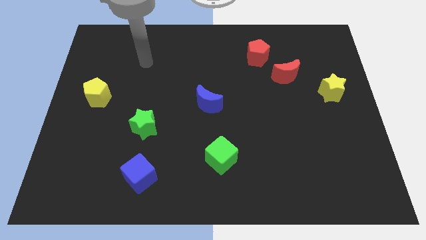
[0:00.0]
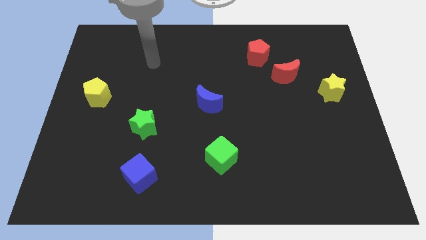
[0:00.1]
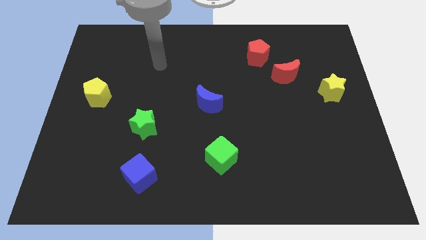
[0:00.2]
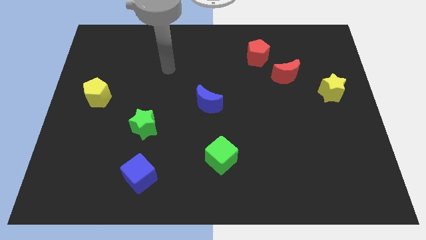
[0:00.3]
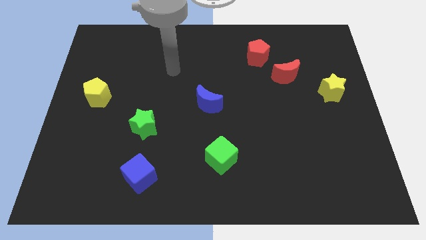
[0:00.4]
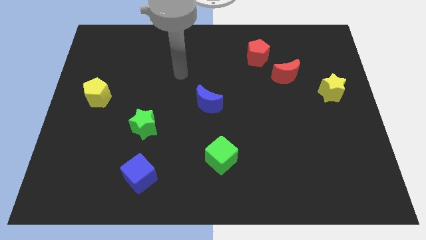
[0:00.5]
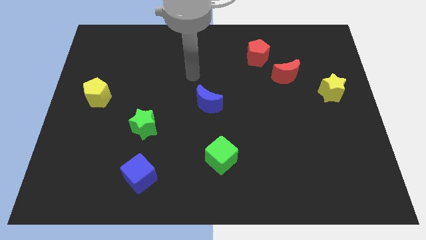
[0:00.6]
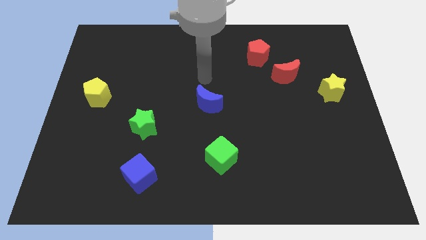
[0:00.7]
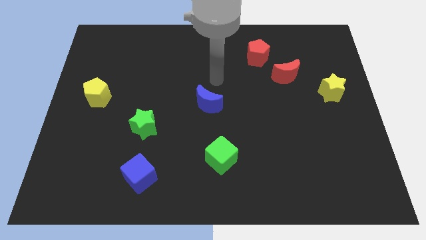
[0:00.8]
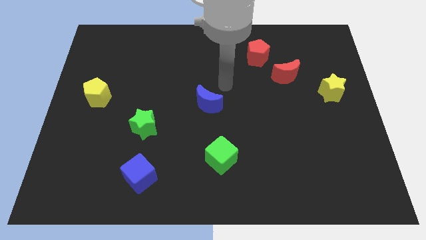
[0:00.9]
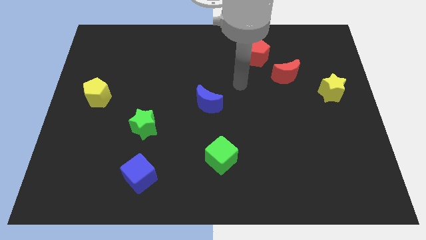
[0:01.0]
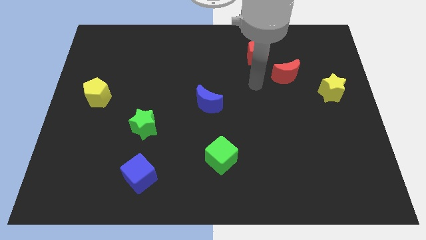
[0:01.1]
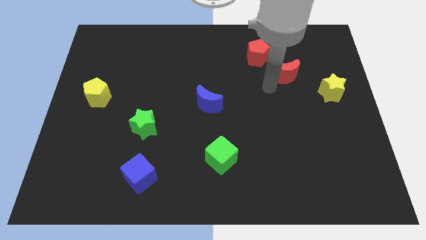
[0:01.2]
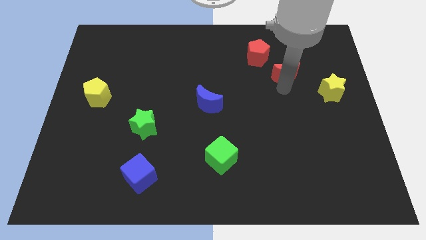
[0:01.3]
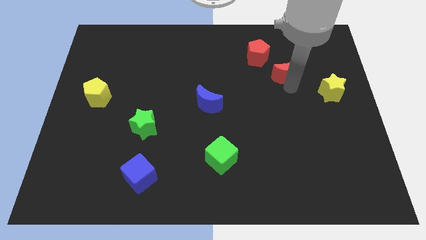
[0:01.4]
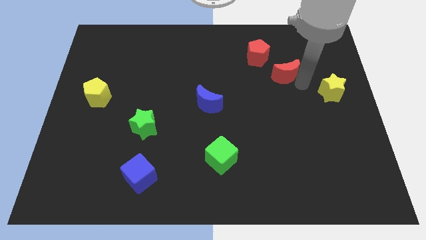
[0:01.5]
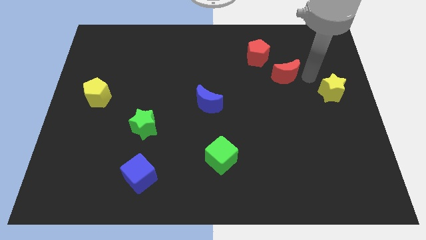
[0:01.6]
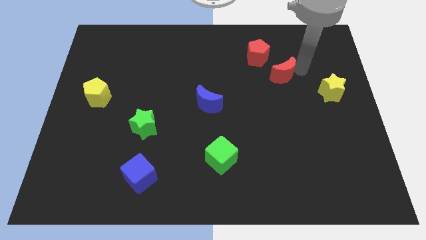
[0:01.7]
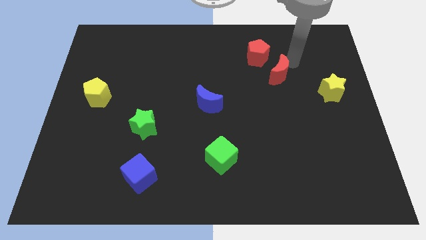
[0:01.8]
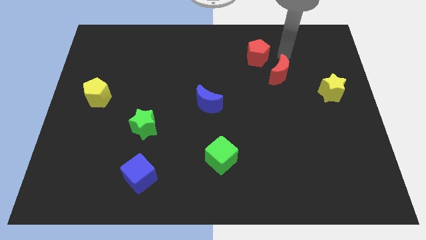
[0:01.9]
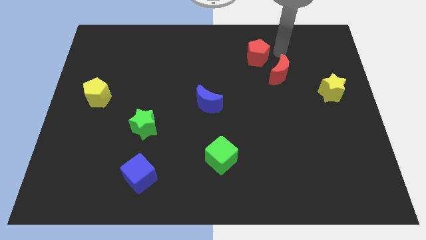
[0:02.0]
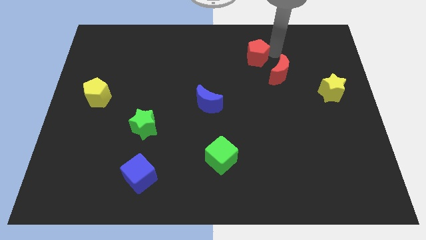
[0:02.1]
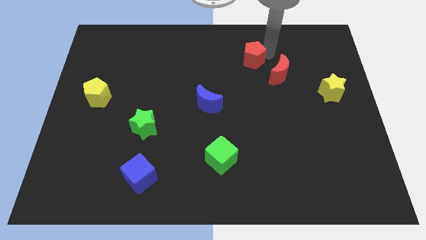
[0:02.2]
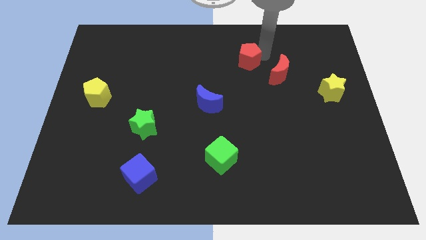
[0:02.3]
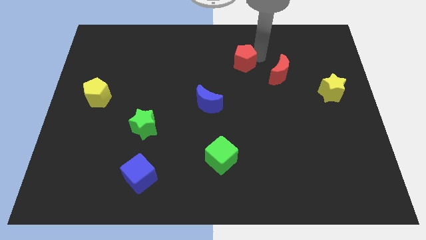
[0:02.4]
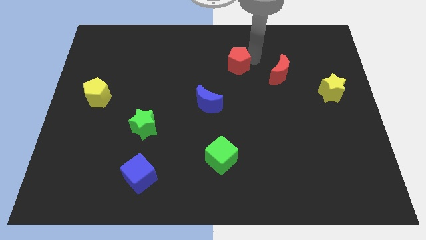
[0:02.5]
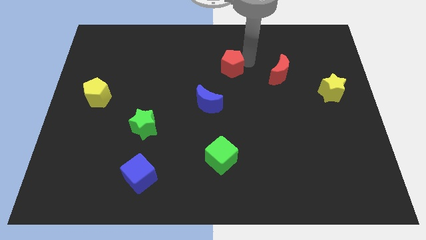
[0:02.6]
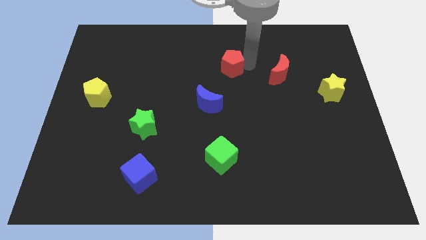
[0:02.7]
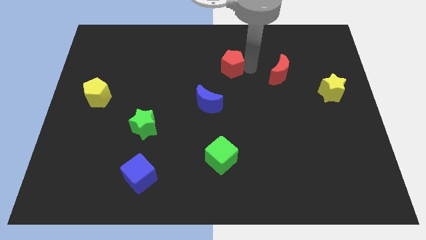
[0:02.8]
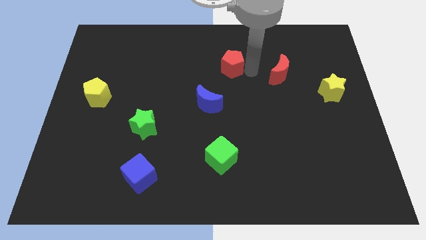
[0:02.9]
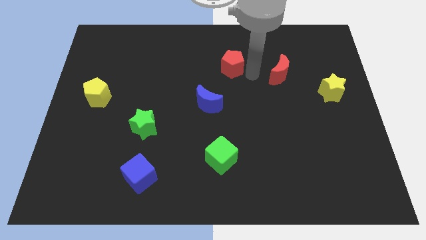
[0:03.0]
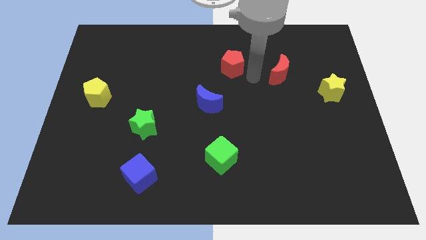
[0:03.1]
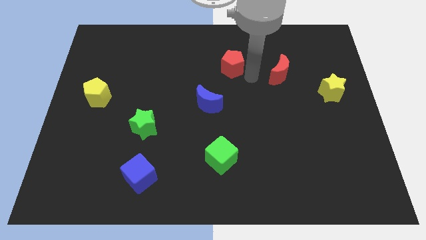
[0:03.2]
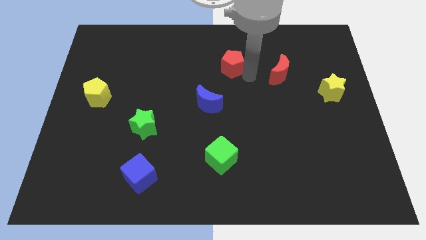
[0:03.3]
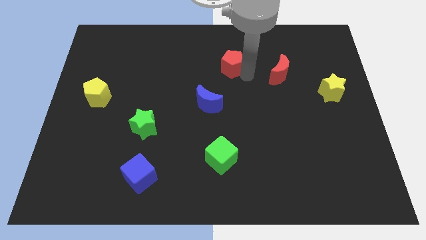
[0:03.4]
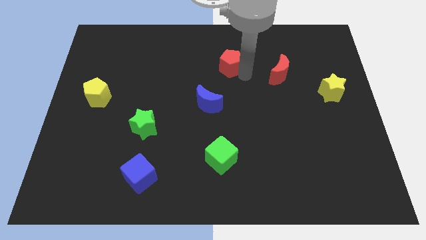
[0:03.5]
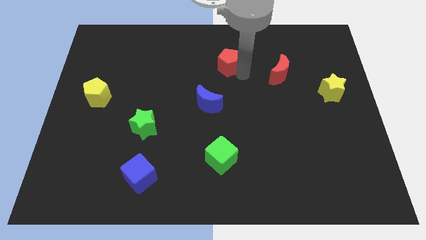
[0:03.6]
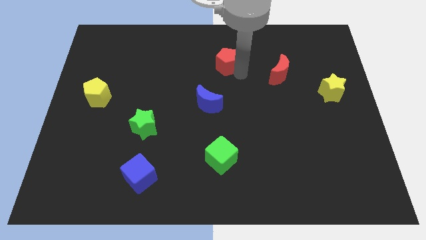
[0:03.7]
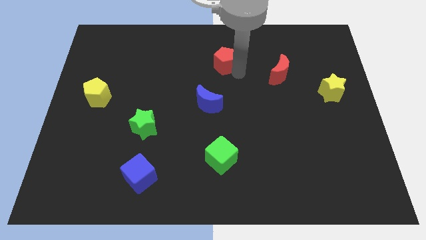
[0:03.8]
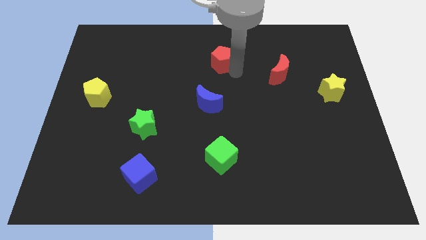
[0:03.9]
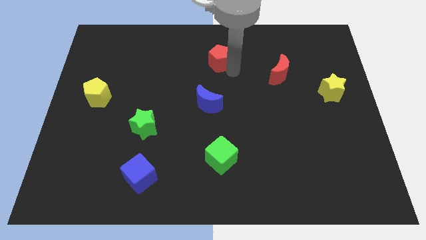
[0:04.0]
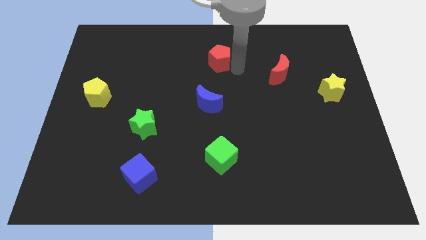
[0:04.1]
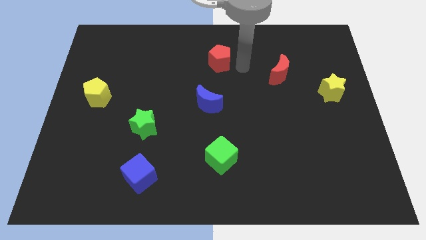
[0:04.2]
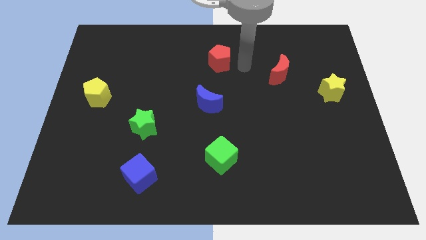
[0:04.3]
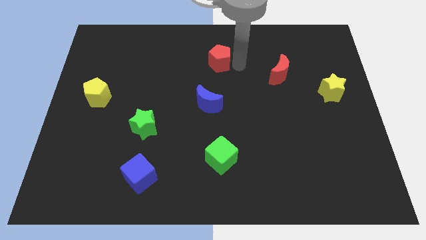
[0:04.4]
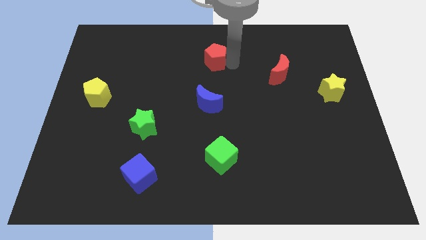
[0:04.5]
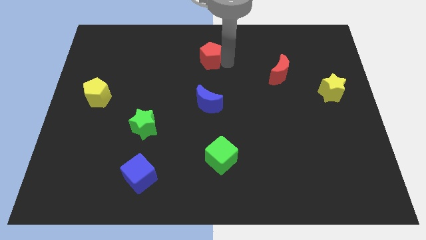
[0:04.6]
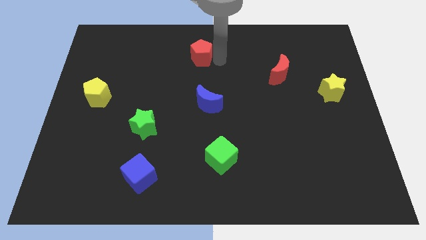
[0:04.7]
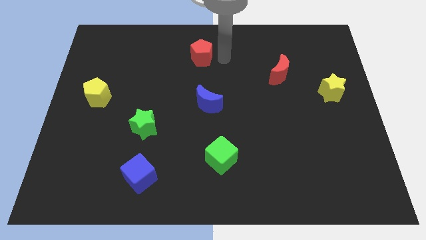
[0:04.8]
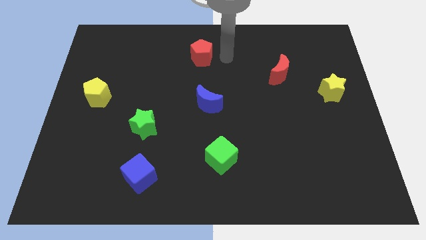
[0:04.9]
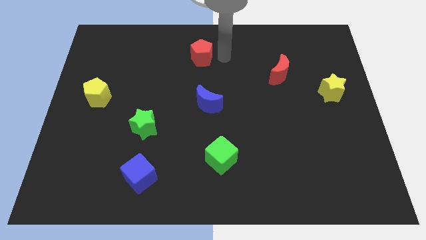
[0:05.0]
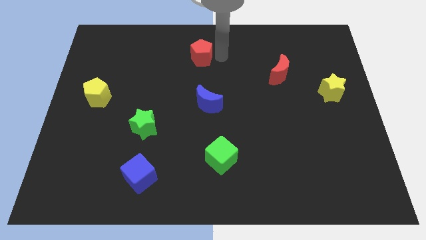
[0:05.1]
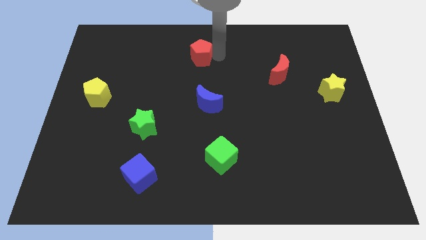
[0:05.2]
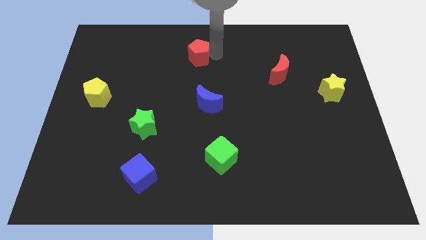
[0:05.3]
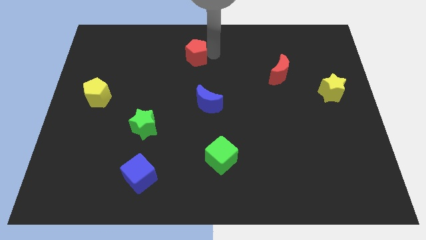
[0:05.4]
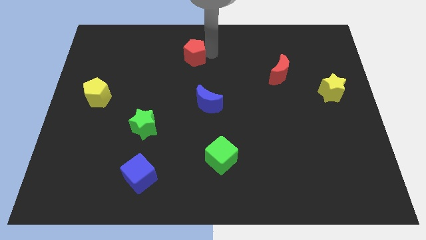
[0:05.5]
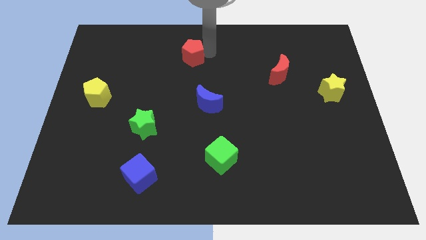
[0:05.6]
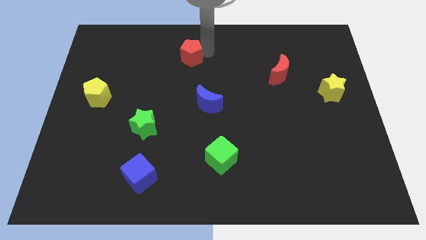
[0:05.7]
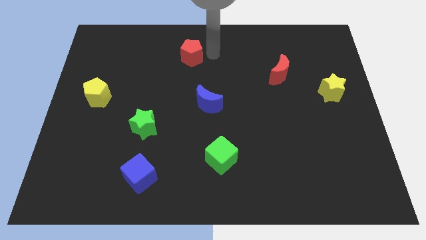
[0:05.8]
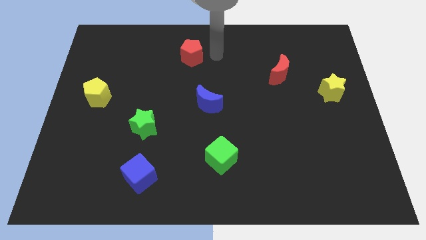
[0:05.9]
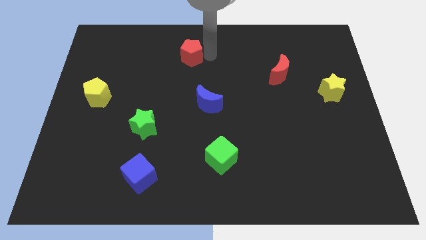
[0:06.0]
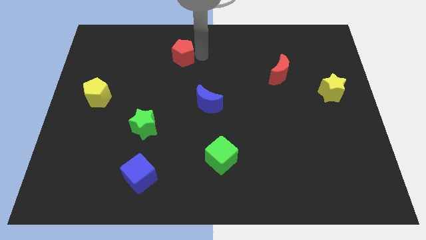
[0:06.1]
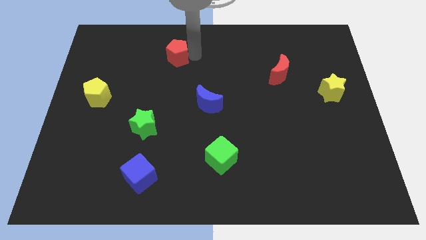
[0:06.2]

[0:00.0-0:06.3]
move the red pentagon to the left

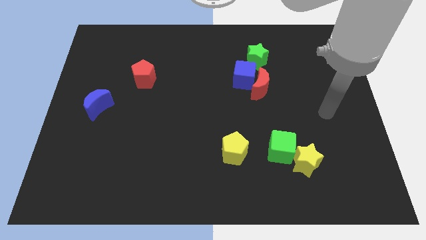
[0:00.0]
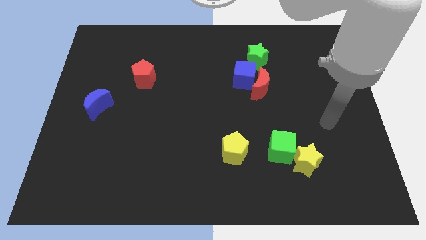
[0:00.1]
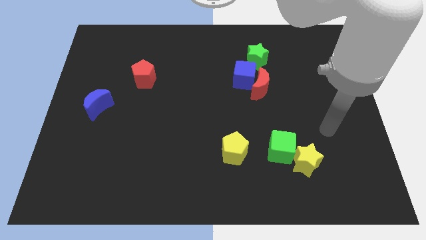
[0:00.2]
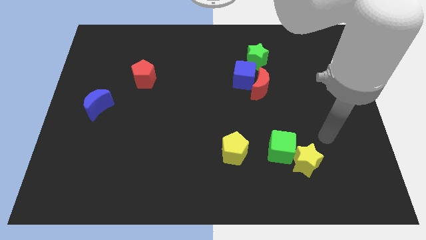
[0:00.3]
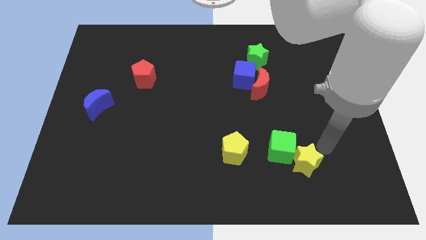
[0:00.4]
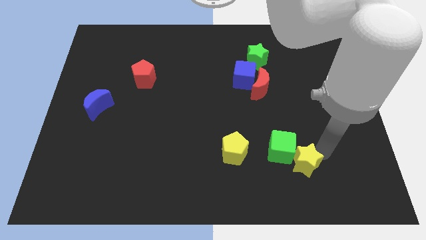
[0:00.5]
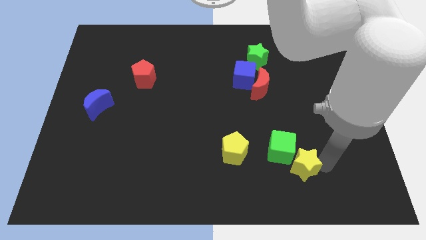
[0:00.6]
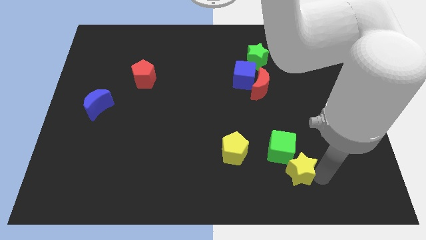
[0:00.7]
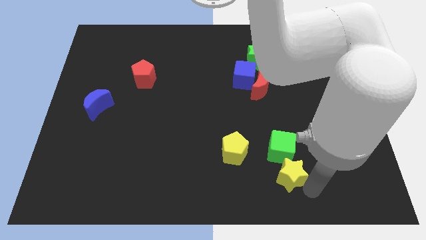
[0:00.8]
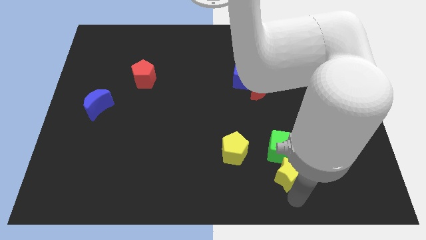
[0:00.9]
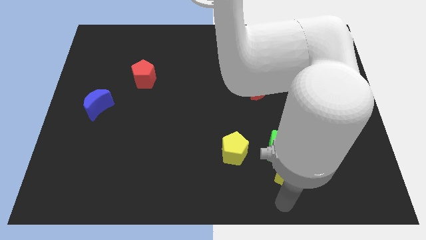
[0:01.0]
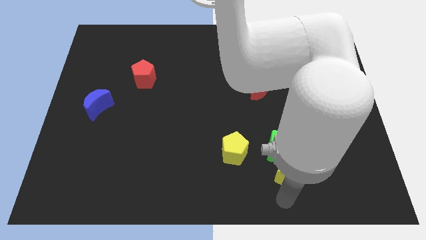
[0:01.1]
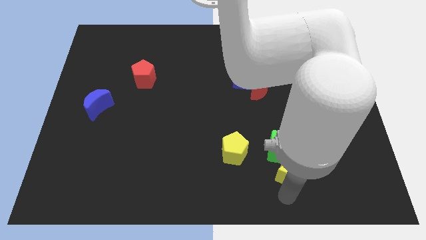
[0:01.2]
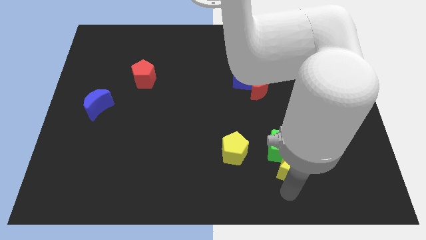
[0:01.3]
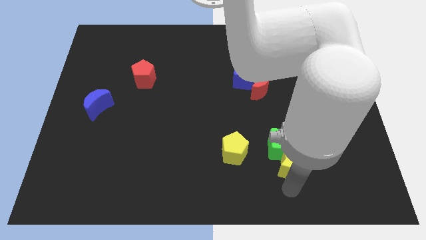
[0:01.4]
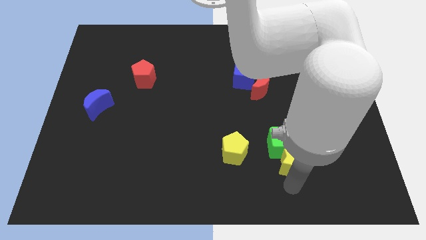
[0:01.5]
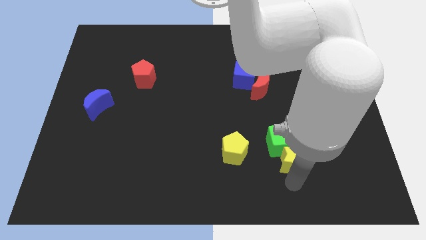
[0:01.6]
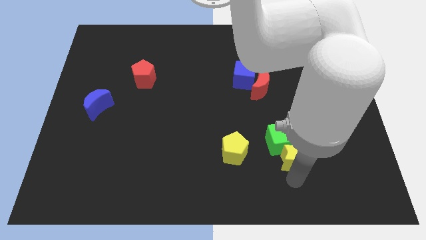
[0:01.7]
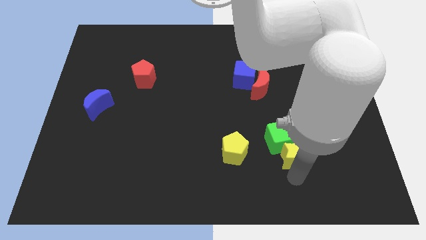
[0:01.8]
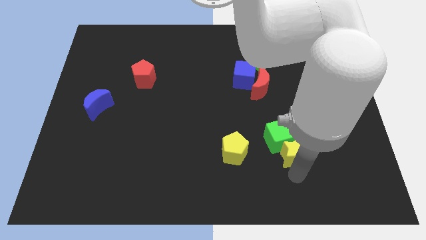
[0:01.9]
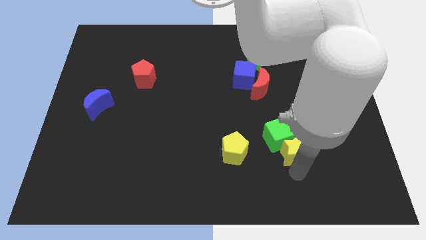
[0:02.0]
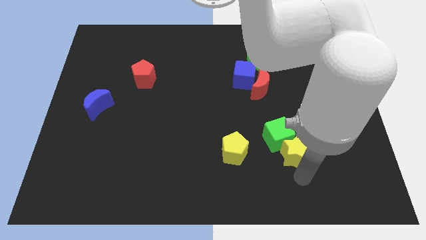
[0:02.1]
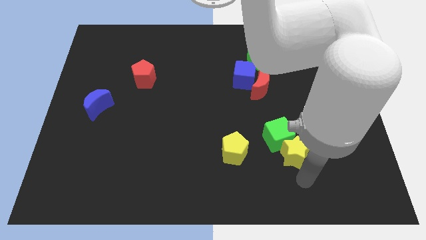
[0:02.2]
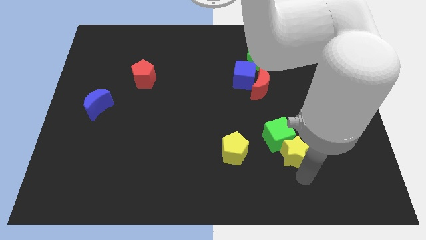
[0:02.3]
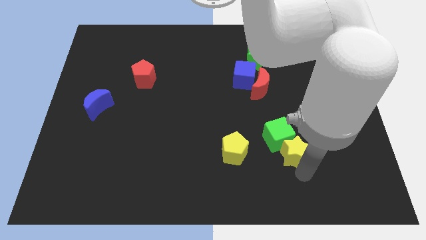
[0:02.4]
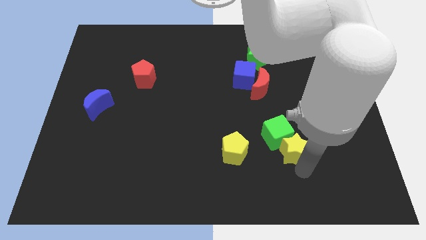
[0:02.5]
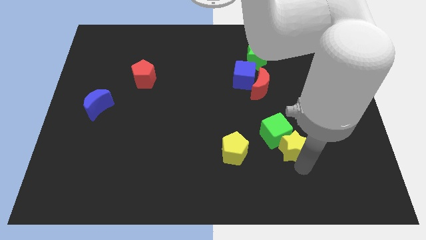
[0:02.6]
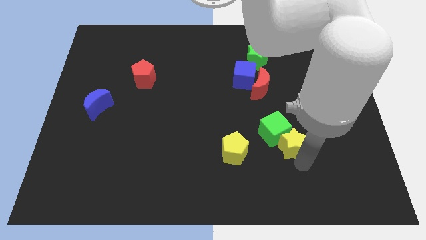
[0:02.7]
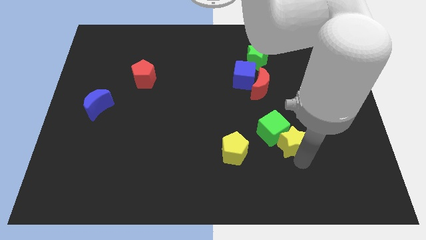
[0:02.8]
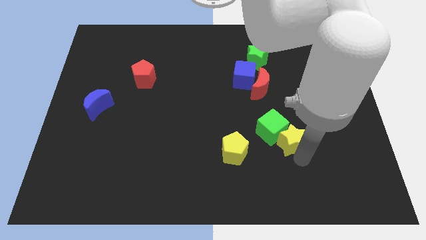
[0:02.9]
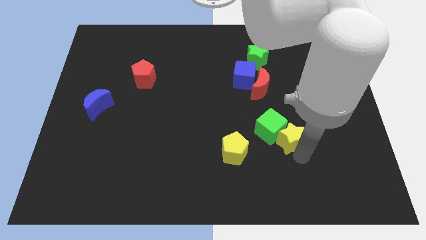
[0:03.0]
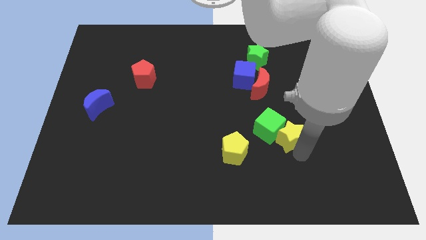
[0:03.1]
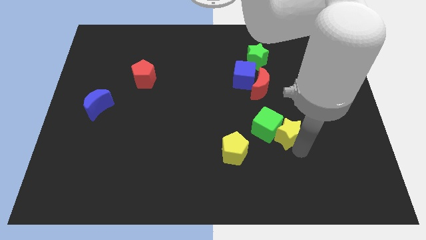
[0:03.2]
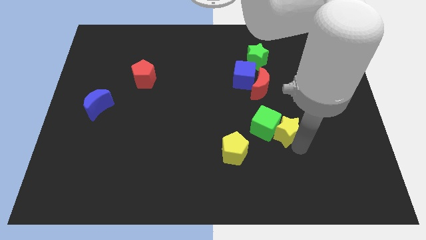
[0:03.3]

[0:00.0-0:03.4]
move the yellow star a little bit upwards and left
